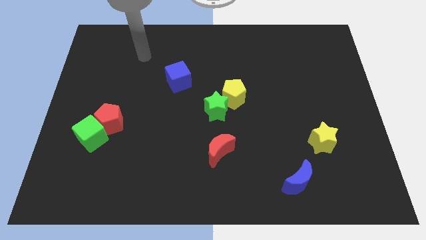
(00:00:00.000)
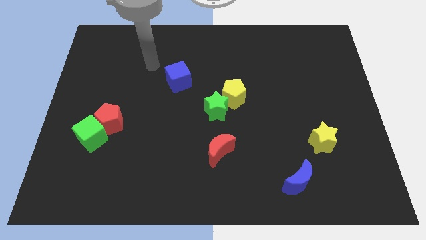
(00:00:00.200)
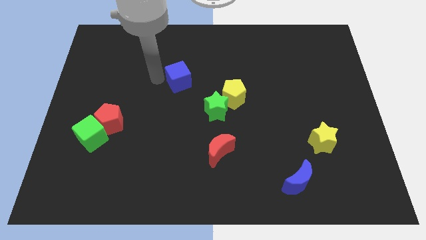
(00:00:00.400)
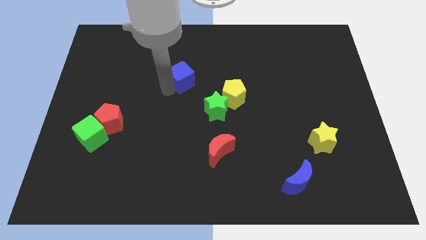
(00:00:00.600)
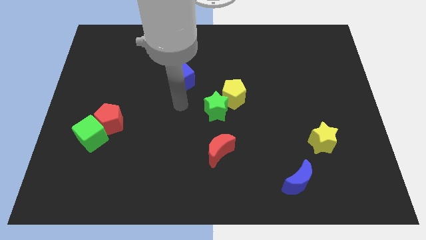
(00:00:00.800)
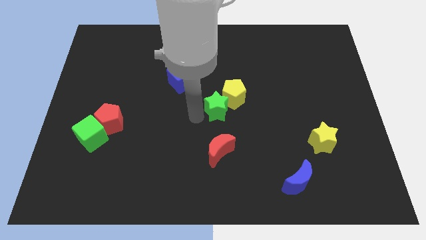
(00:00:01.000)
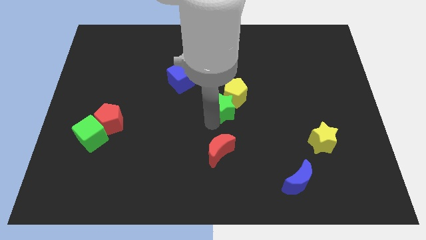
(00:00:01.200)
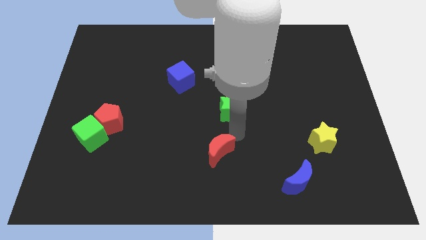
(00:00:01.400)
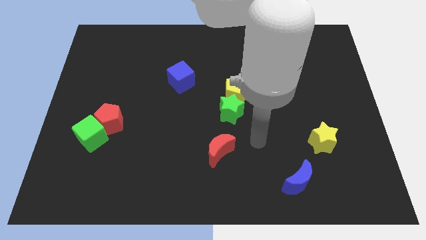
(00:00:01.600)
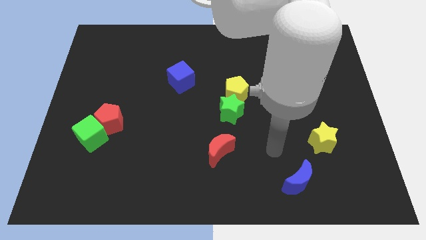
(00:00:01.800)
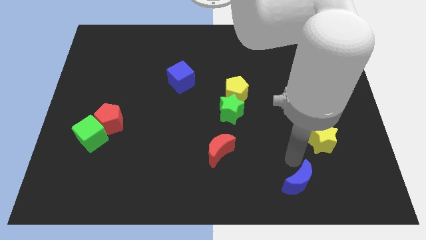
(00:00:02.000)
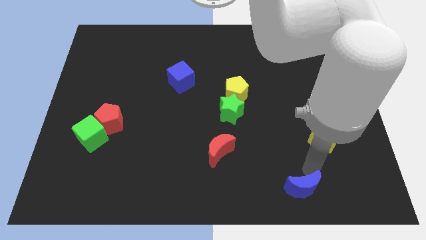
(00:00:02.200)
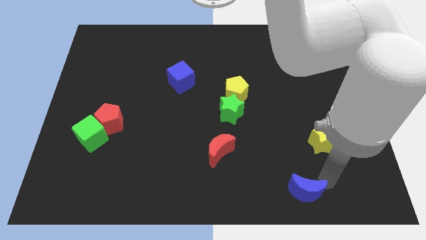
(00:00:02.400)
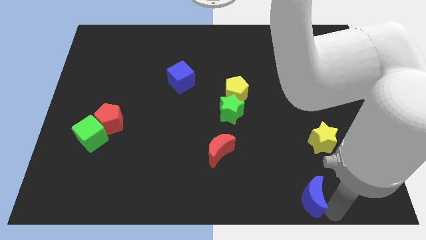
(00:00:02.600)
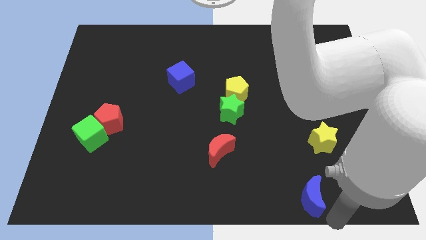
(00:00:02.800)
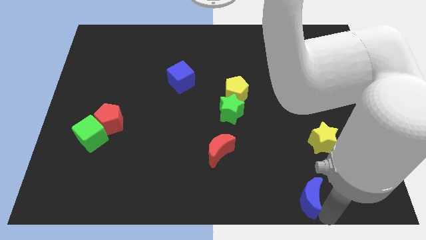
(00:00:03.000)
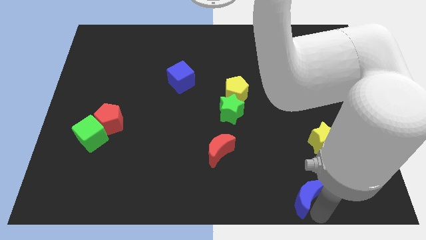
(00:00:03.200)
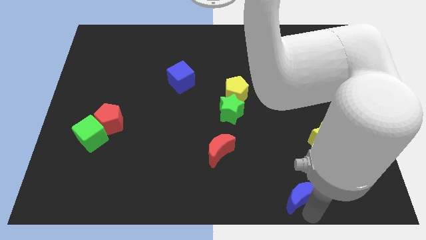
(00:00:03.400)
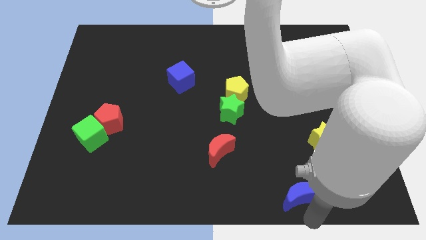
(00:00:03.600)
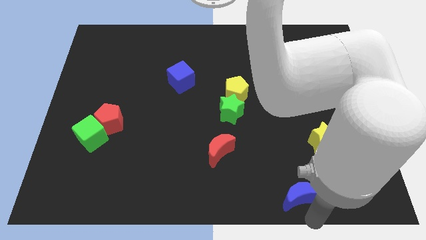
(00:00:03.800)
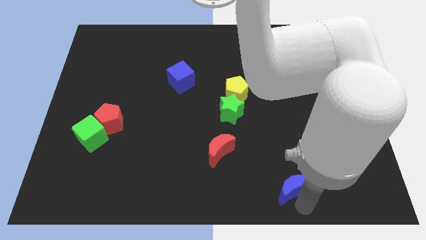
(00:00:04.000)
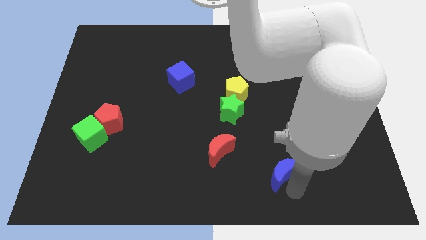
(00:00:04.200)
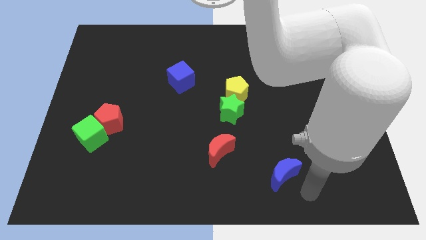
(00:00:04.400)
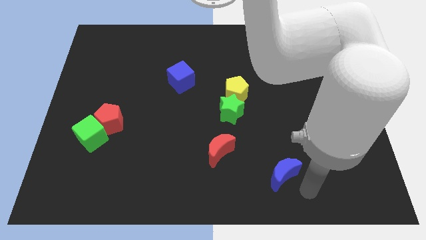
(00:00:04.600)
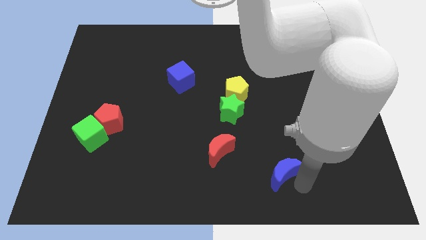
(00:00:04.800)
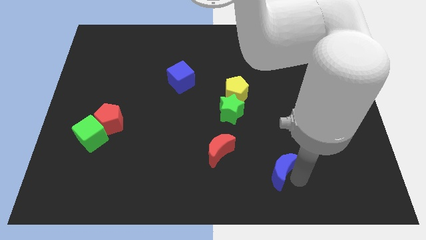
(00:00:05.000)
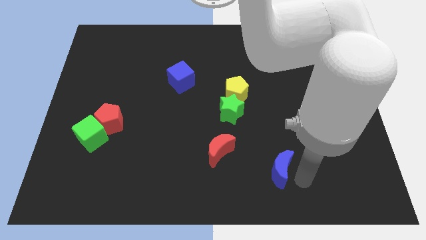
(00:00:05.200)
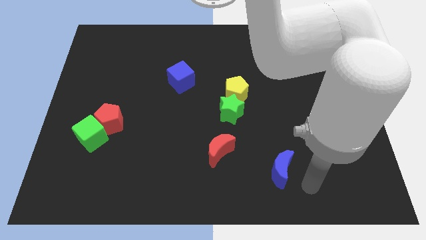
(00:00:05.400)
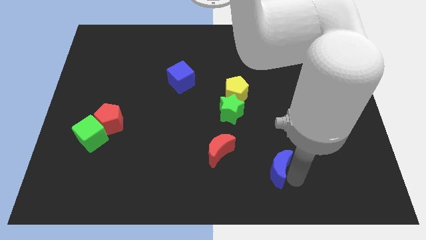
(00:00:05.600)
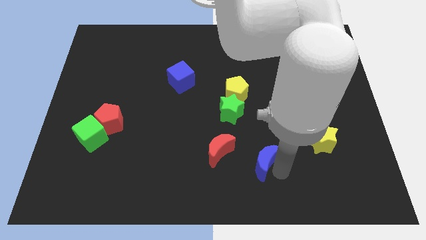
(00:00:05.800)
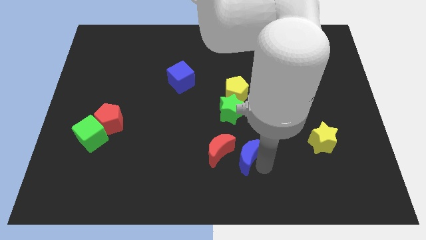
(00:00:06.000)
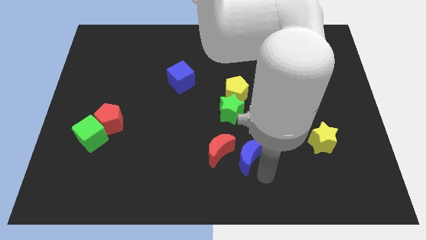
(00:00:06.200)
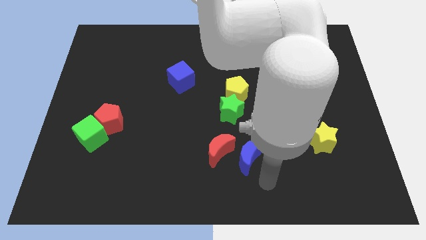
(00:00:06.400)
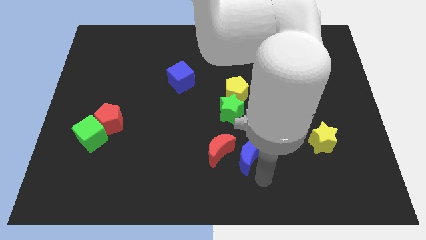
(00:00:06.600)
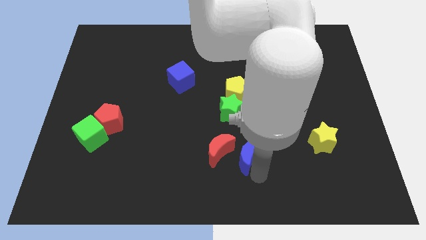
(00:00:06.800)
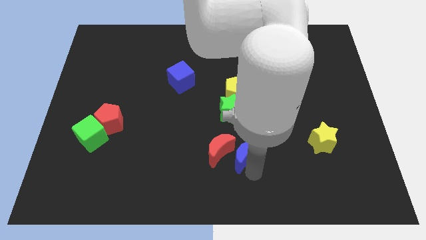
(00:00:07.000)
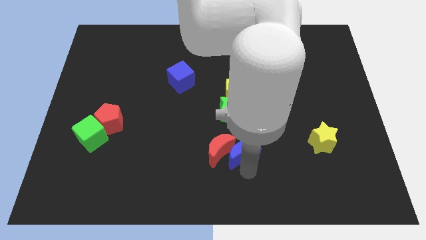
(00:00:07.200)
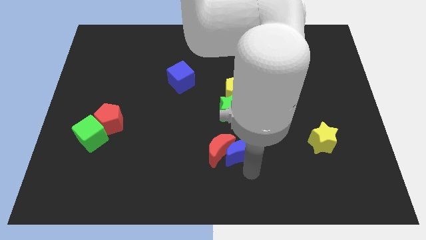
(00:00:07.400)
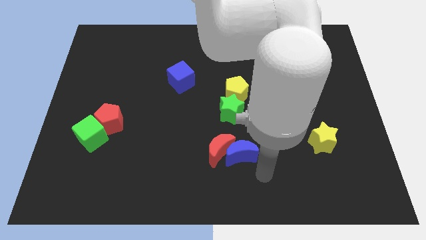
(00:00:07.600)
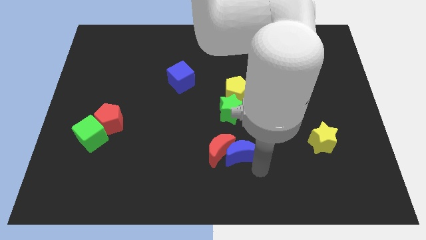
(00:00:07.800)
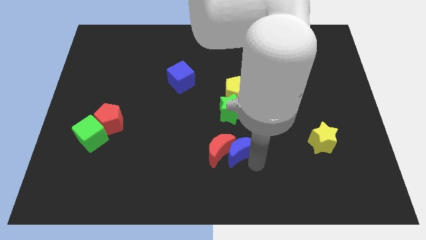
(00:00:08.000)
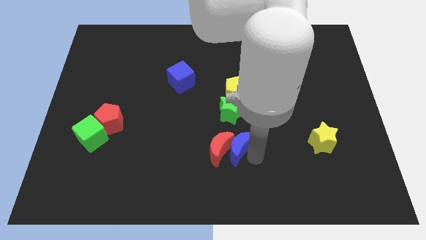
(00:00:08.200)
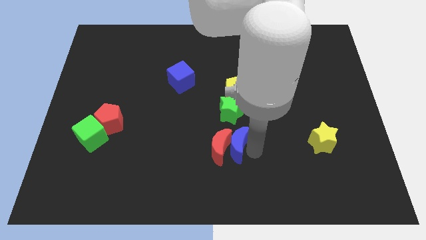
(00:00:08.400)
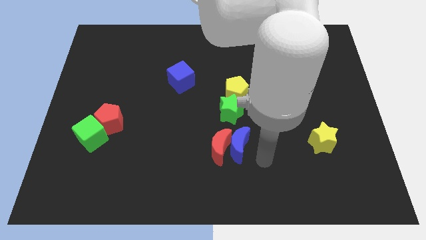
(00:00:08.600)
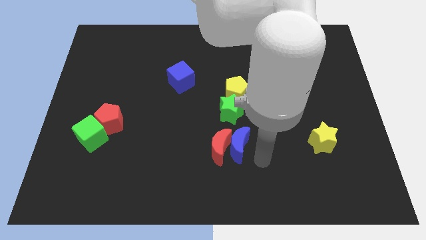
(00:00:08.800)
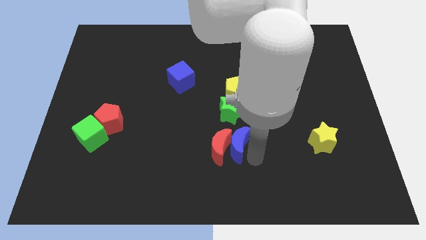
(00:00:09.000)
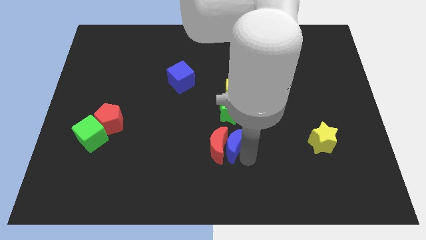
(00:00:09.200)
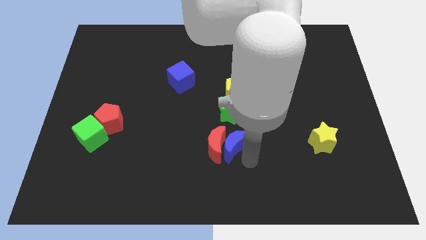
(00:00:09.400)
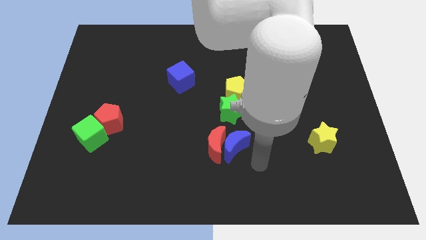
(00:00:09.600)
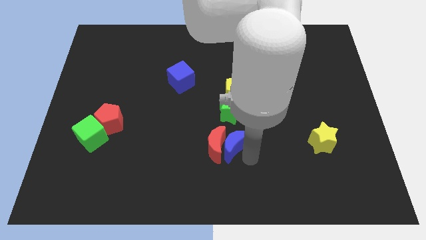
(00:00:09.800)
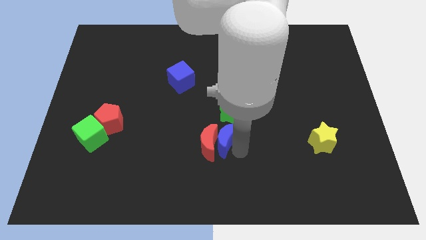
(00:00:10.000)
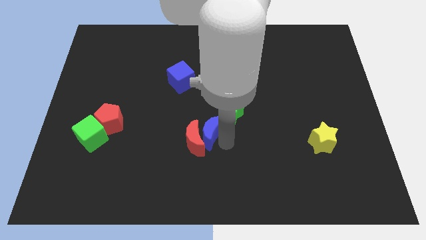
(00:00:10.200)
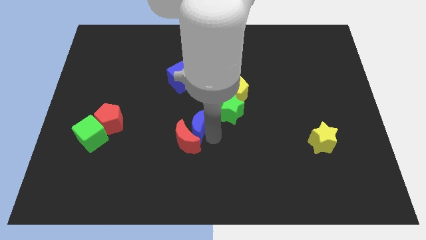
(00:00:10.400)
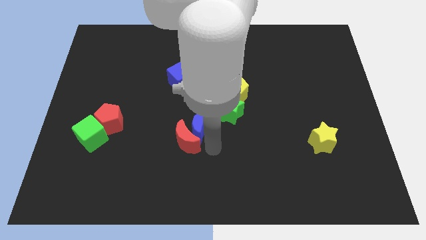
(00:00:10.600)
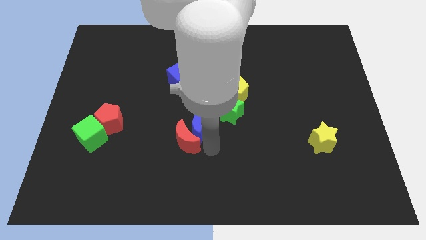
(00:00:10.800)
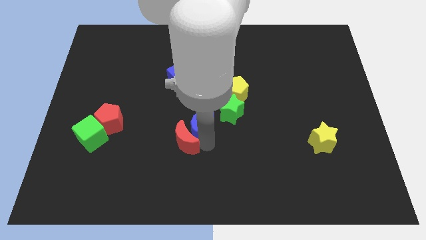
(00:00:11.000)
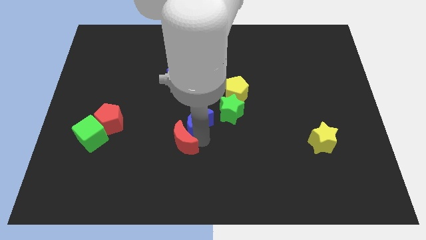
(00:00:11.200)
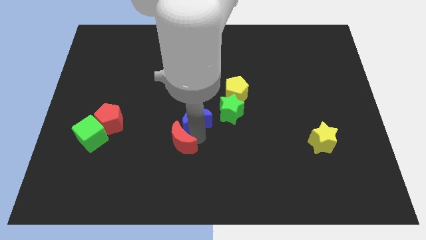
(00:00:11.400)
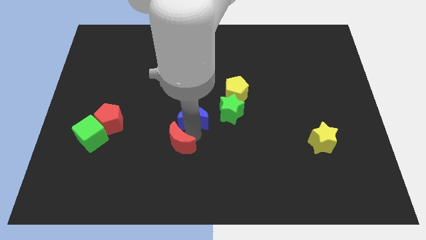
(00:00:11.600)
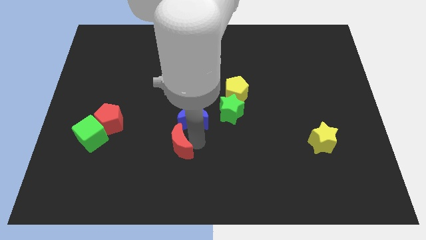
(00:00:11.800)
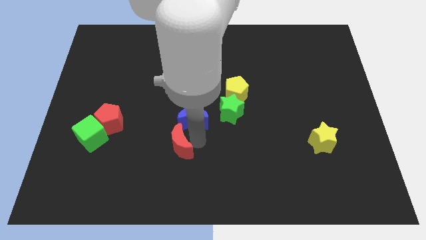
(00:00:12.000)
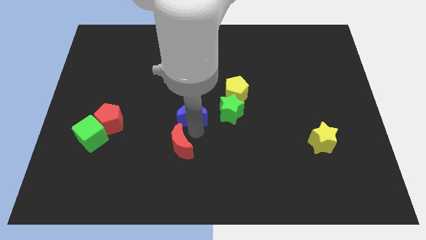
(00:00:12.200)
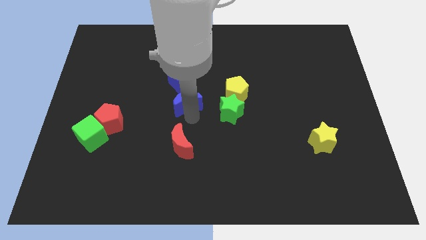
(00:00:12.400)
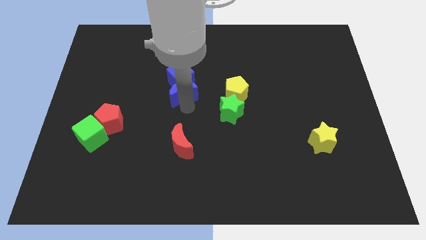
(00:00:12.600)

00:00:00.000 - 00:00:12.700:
slide the blue moon towards the blue cube
